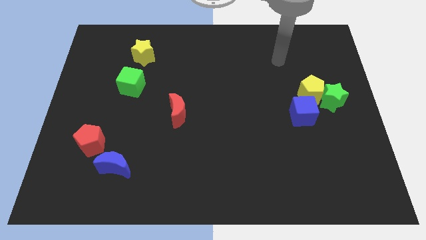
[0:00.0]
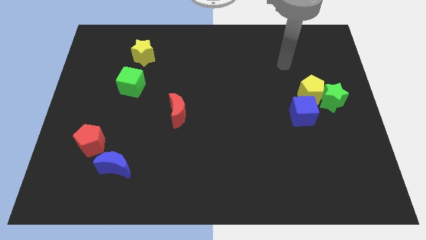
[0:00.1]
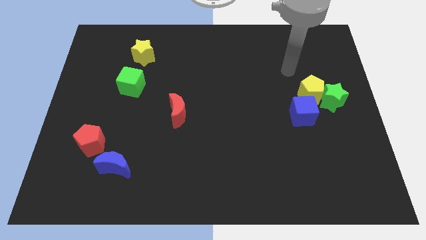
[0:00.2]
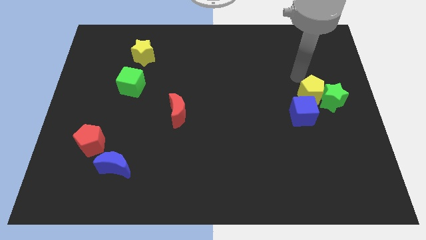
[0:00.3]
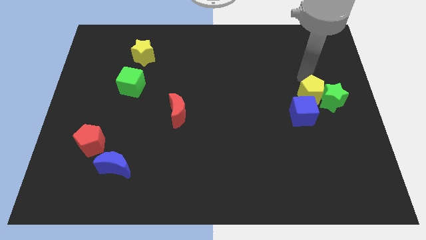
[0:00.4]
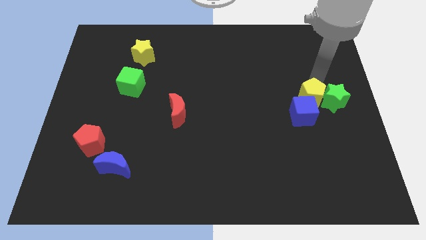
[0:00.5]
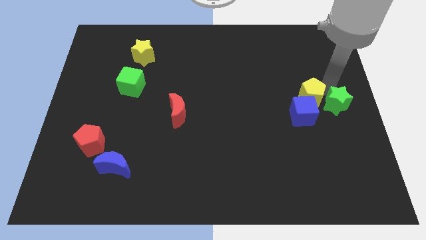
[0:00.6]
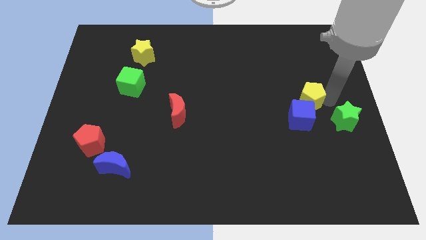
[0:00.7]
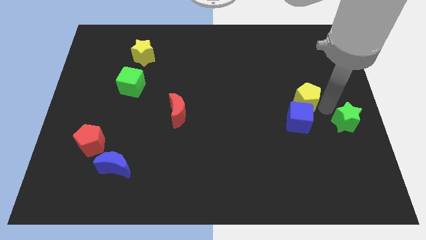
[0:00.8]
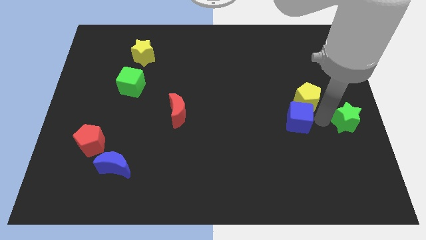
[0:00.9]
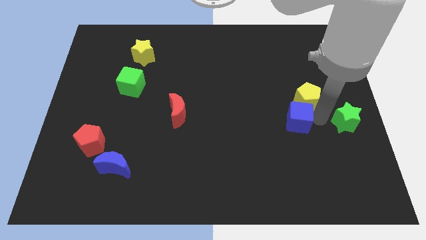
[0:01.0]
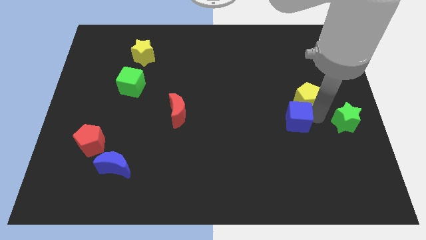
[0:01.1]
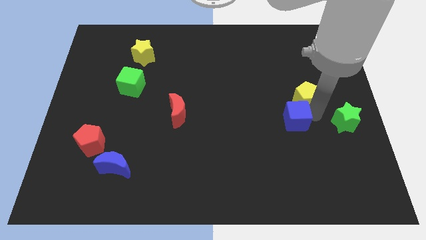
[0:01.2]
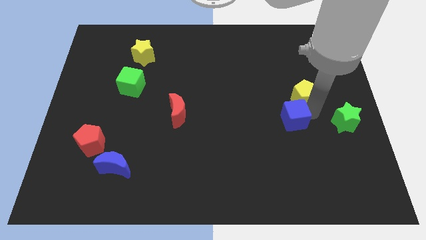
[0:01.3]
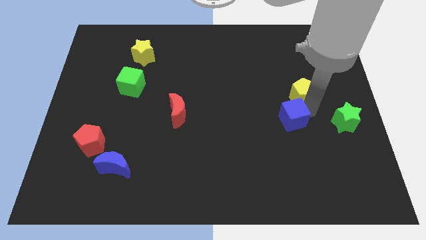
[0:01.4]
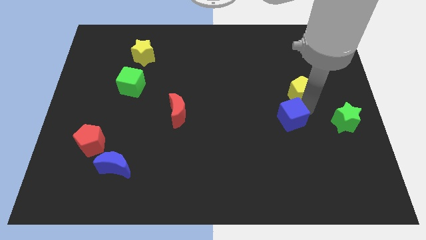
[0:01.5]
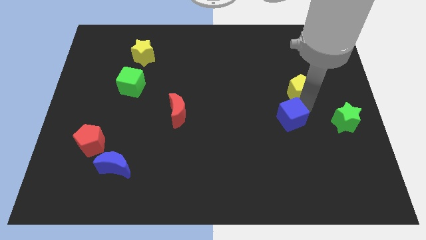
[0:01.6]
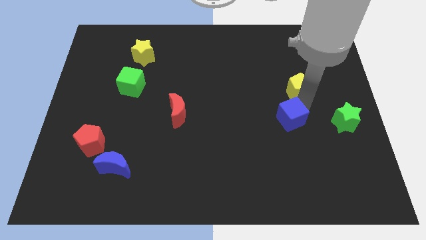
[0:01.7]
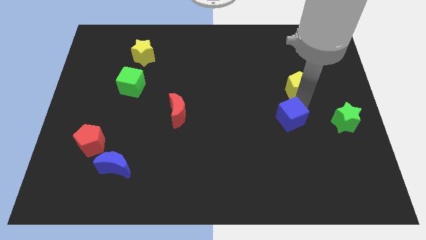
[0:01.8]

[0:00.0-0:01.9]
pull the yellow pentagon apart from the green star and blue cube

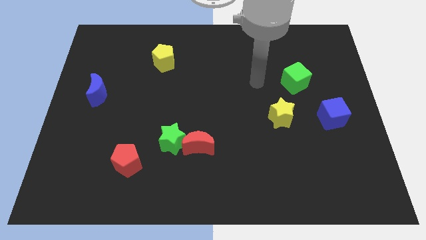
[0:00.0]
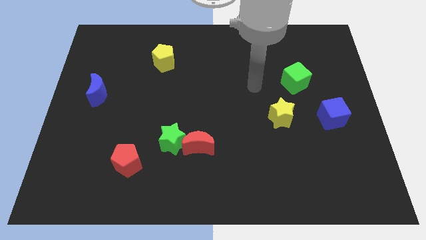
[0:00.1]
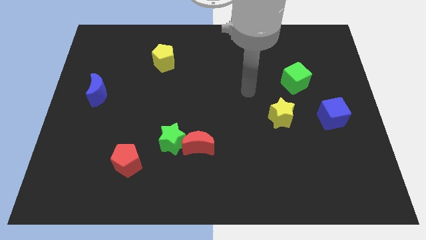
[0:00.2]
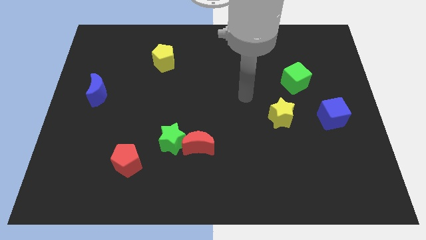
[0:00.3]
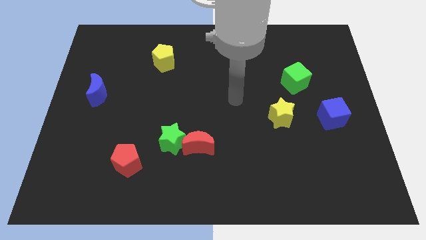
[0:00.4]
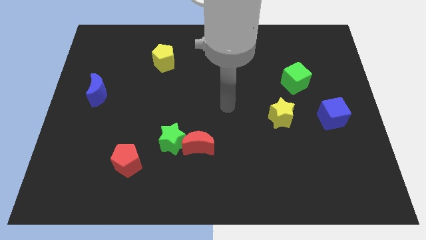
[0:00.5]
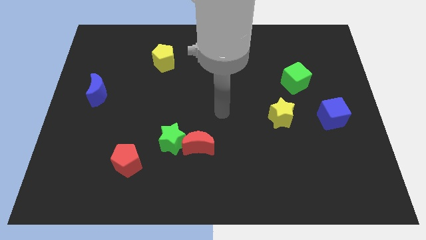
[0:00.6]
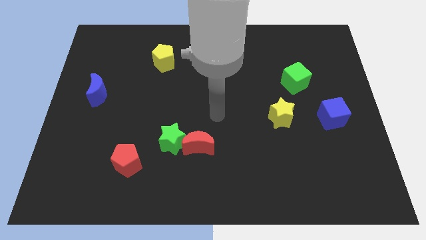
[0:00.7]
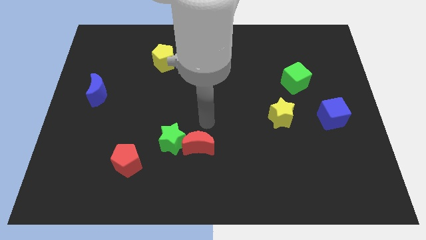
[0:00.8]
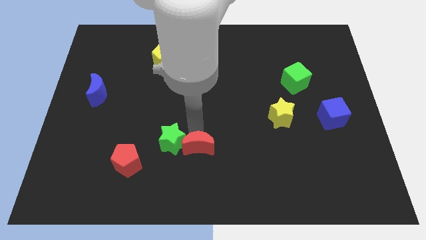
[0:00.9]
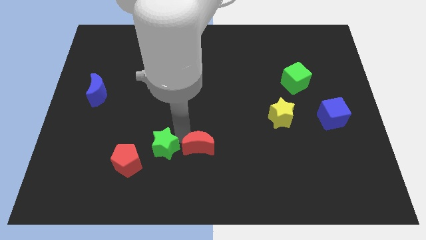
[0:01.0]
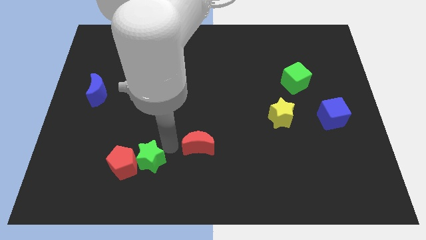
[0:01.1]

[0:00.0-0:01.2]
move the red moon away from the green star

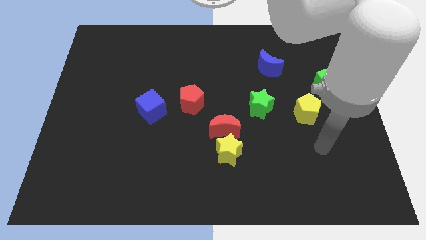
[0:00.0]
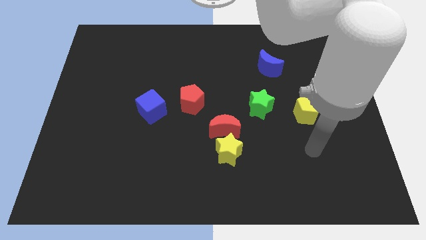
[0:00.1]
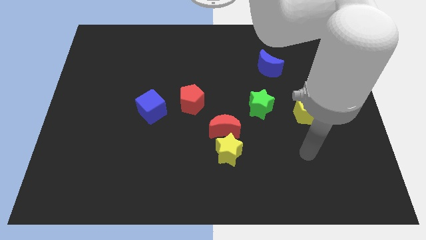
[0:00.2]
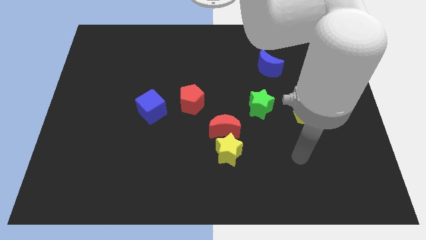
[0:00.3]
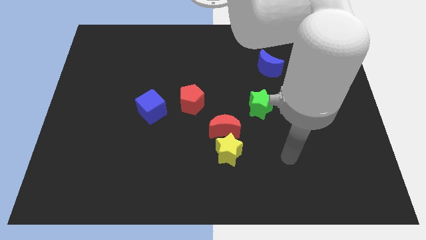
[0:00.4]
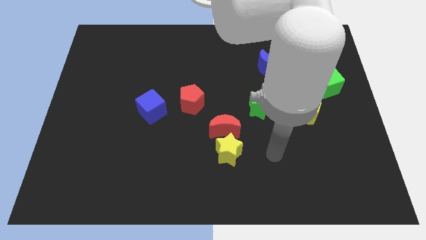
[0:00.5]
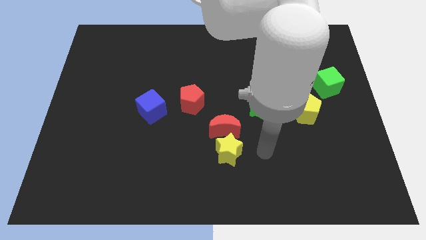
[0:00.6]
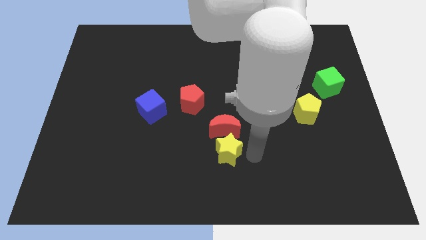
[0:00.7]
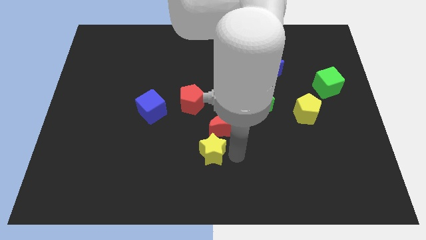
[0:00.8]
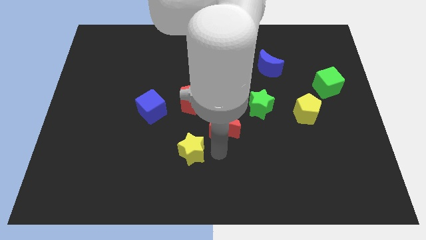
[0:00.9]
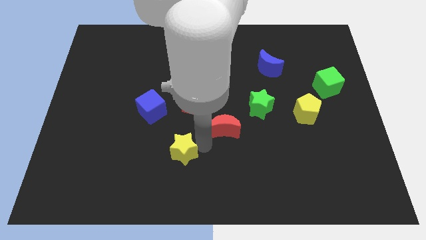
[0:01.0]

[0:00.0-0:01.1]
pull the red moon apart from the yellow star

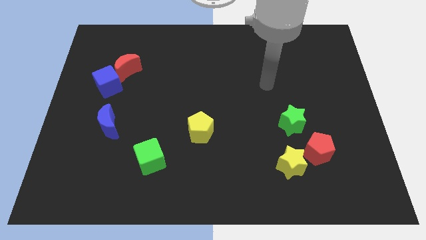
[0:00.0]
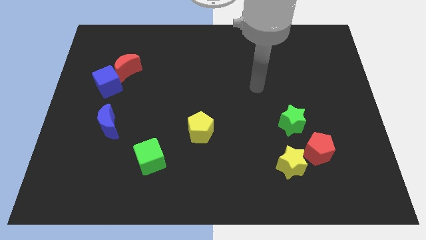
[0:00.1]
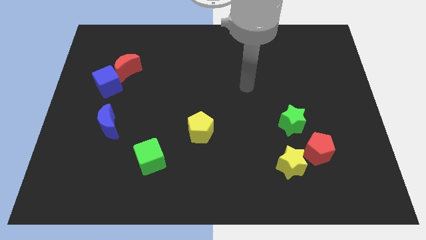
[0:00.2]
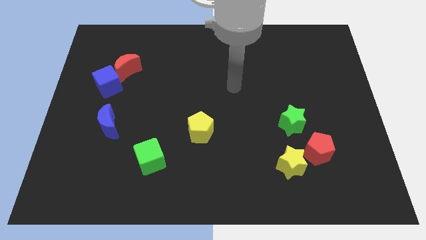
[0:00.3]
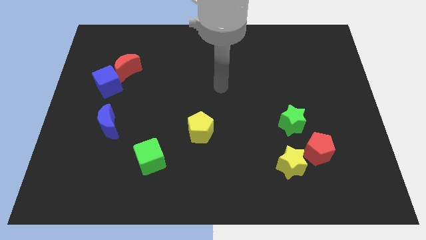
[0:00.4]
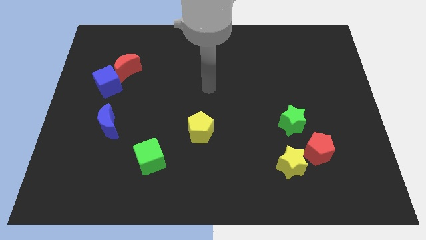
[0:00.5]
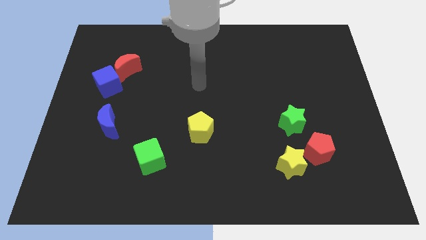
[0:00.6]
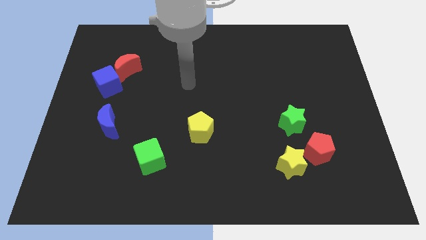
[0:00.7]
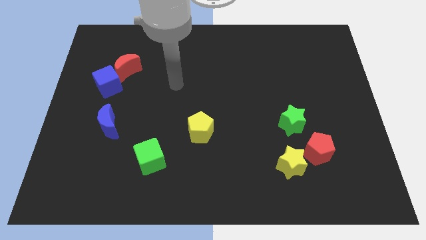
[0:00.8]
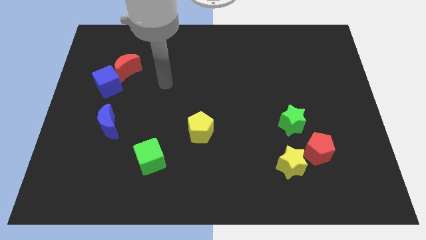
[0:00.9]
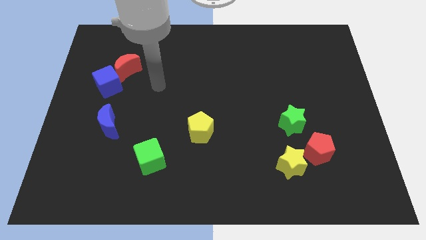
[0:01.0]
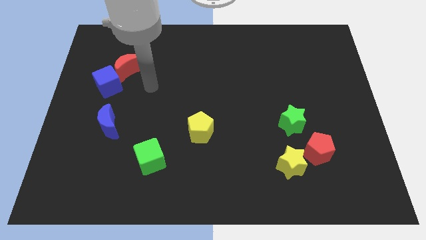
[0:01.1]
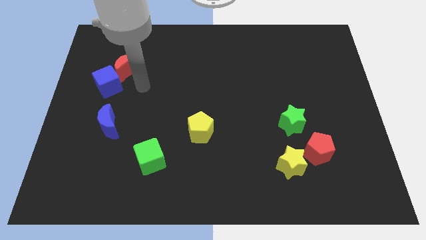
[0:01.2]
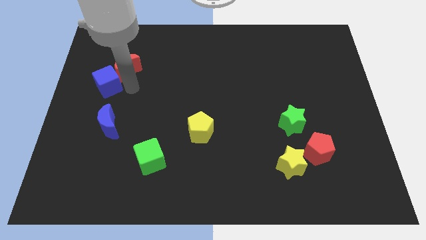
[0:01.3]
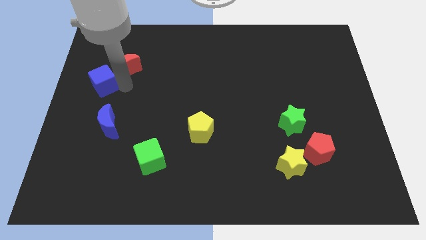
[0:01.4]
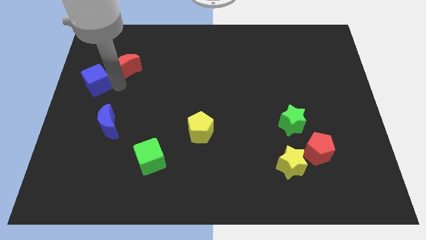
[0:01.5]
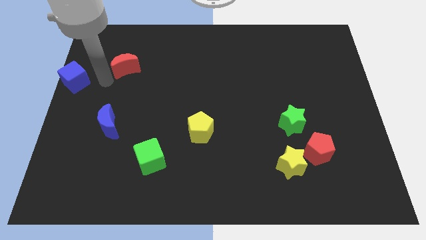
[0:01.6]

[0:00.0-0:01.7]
move the red moon away from the blue cube

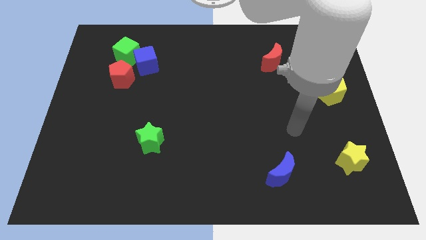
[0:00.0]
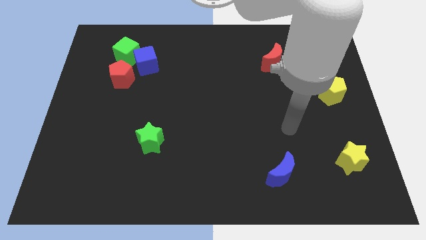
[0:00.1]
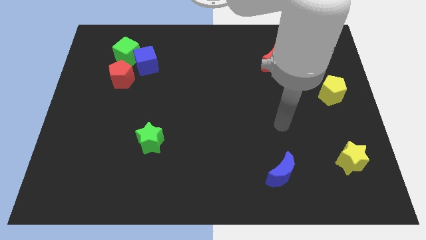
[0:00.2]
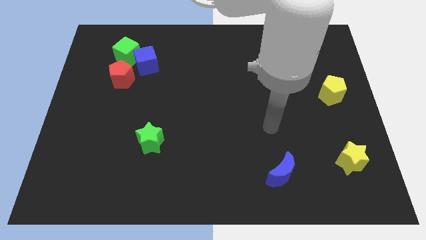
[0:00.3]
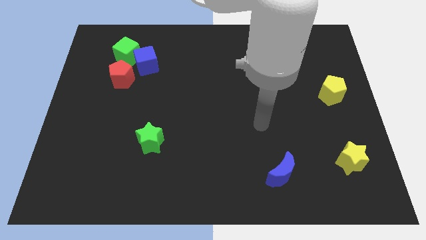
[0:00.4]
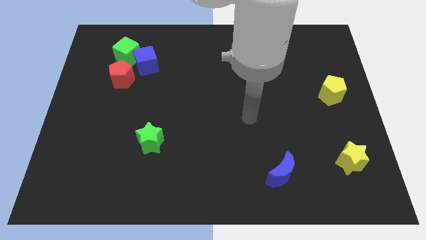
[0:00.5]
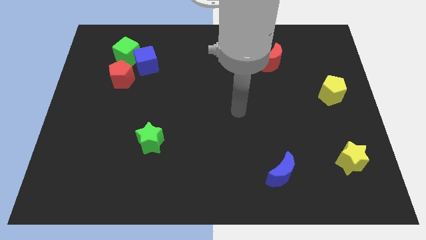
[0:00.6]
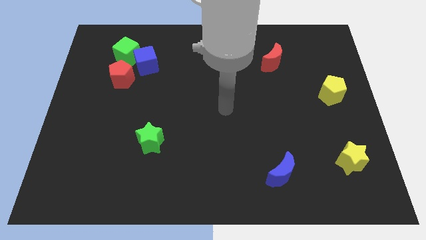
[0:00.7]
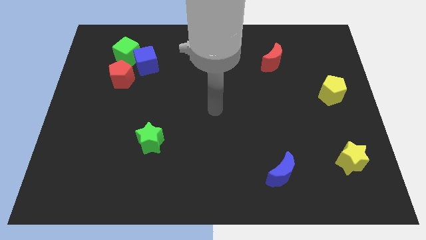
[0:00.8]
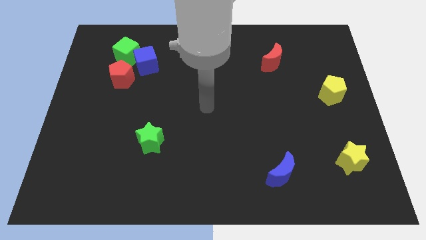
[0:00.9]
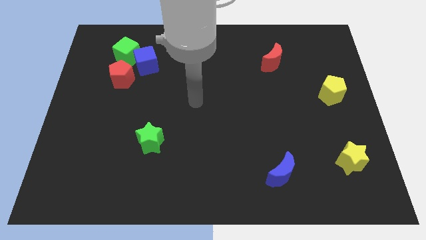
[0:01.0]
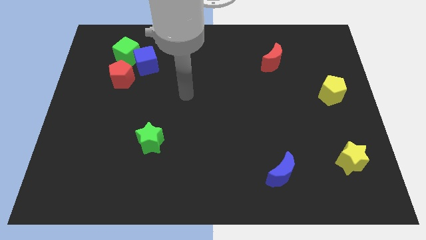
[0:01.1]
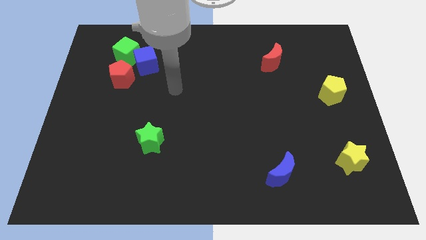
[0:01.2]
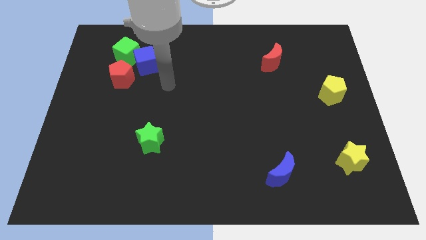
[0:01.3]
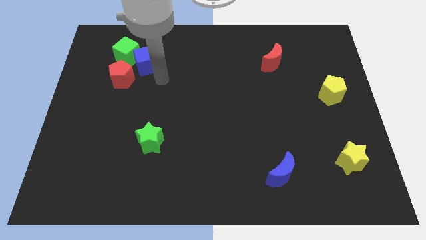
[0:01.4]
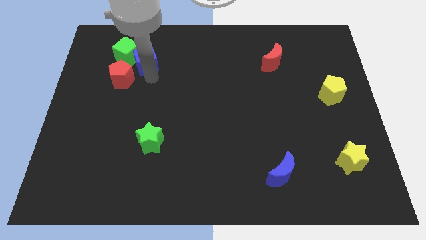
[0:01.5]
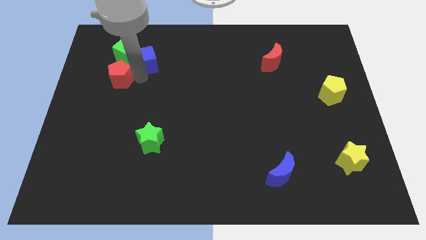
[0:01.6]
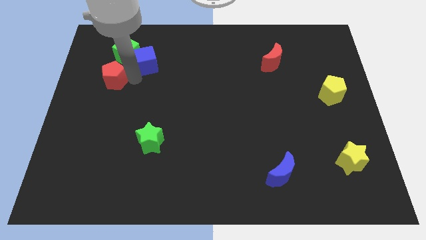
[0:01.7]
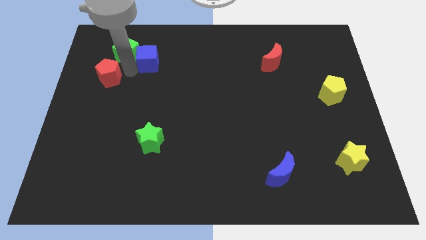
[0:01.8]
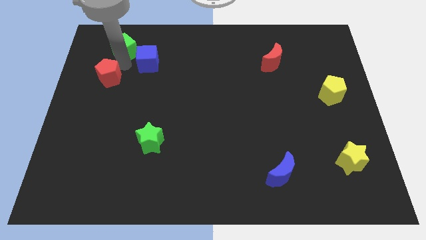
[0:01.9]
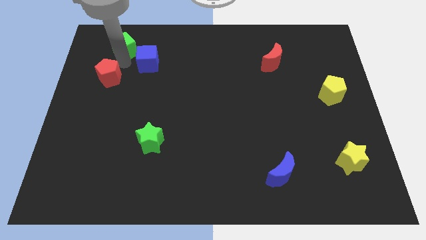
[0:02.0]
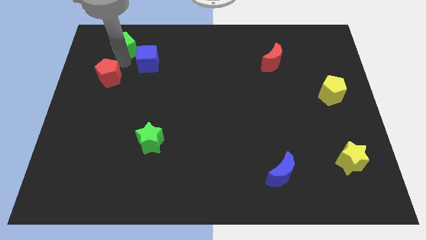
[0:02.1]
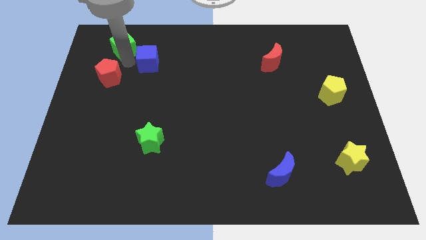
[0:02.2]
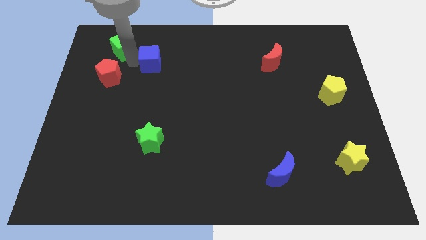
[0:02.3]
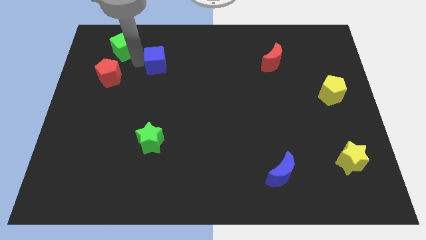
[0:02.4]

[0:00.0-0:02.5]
pull the blue cube apart from the green cube and red pentagon

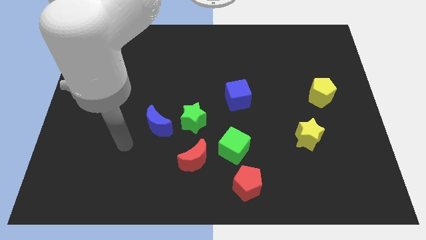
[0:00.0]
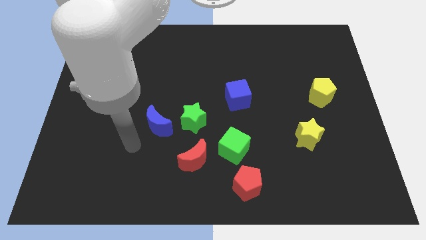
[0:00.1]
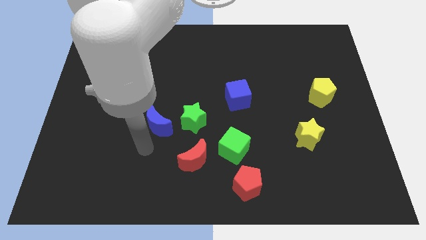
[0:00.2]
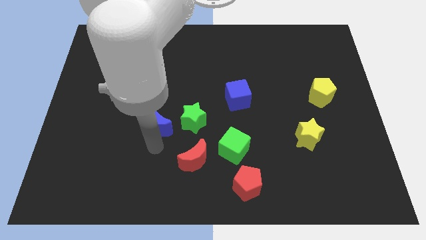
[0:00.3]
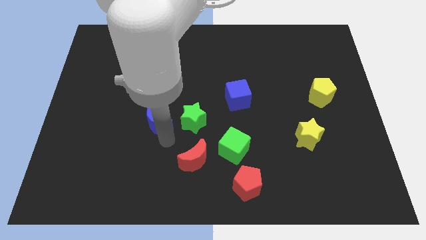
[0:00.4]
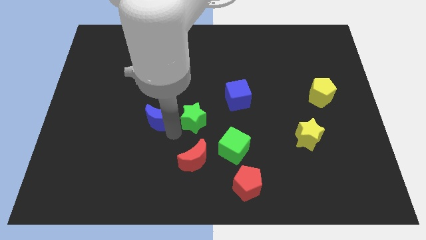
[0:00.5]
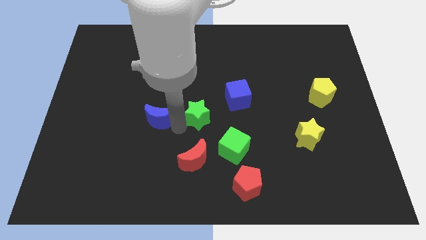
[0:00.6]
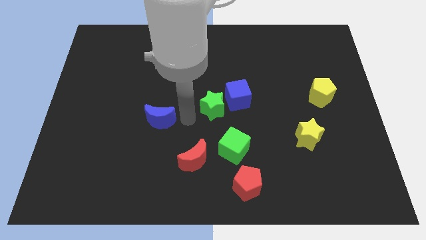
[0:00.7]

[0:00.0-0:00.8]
pull the blue moon apart from the green star
